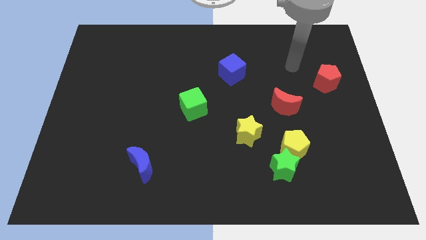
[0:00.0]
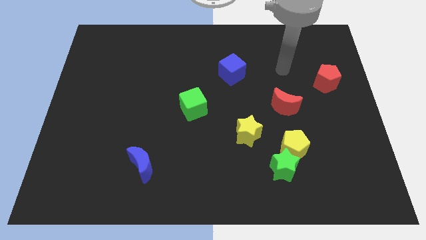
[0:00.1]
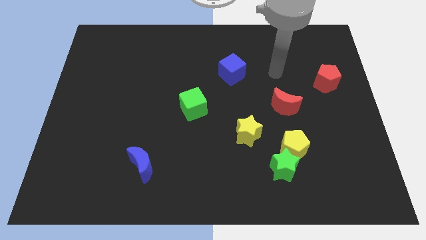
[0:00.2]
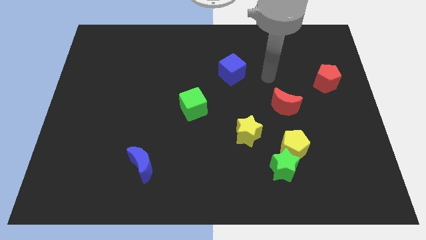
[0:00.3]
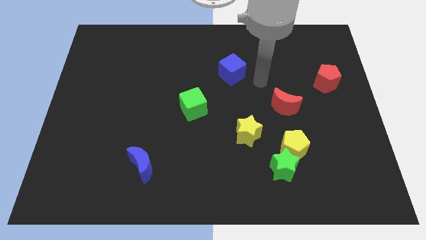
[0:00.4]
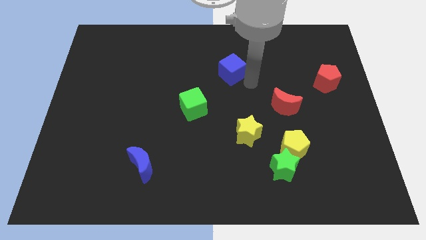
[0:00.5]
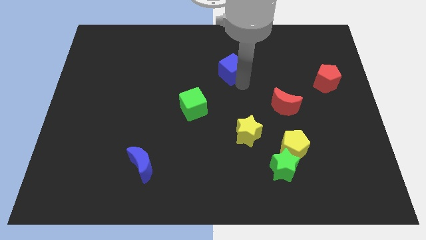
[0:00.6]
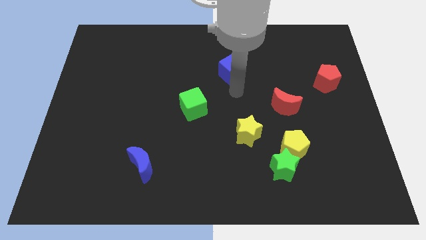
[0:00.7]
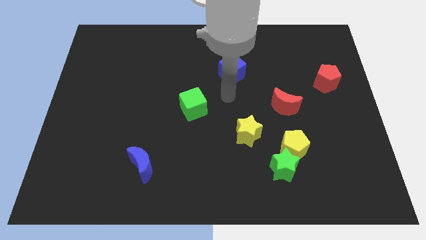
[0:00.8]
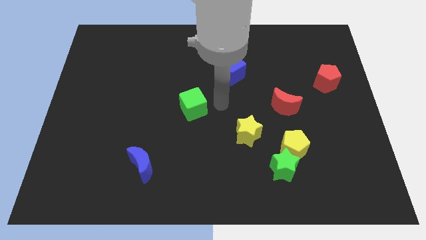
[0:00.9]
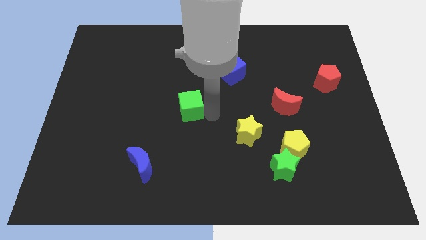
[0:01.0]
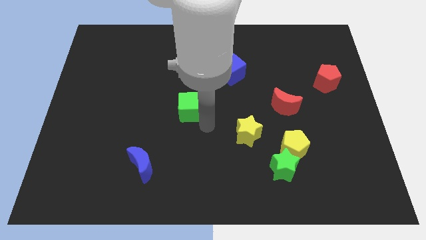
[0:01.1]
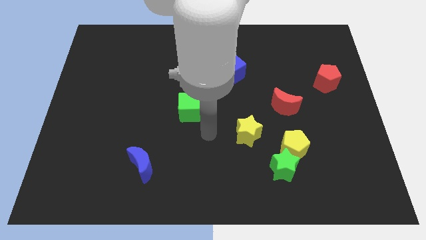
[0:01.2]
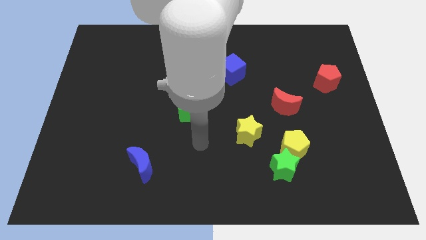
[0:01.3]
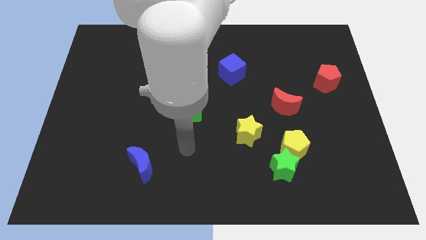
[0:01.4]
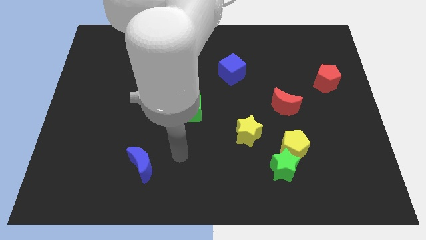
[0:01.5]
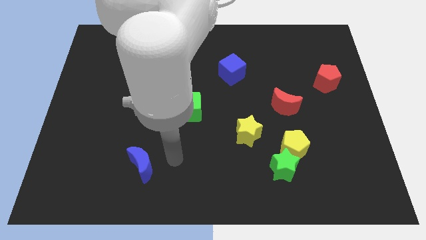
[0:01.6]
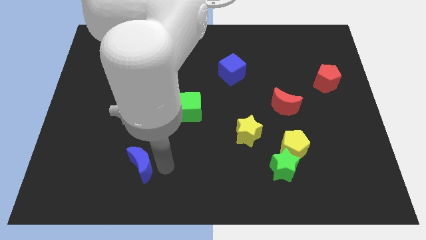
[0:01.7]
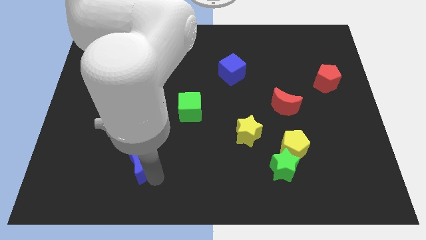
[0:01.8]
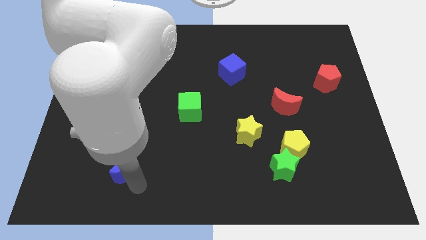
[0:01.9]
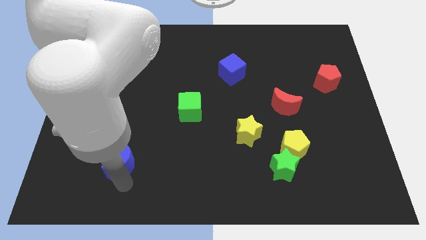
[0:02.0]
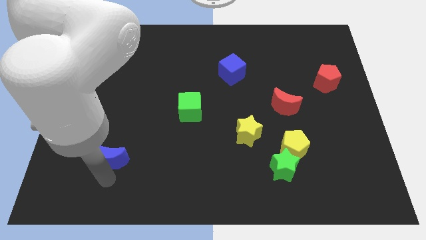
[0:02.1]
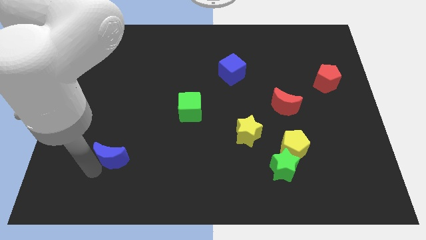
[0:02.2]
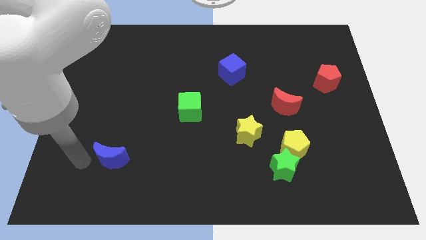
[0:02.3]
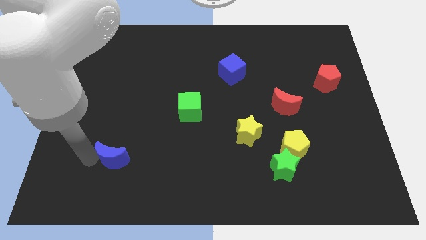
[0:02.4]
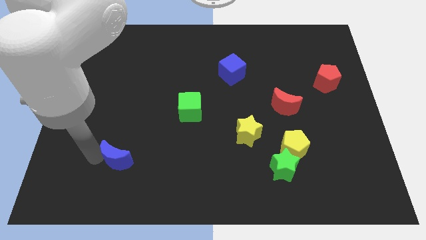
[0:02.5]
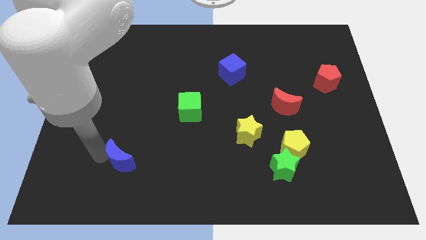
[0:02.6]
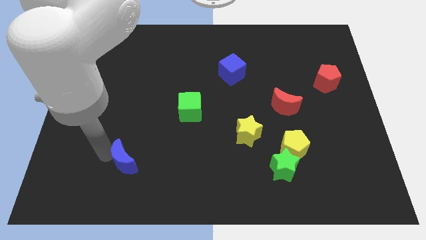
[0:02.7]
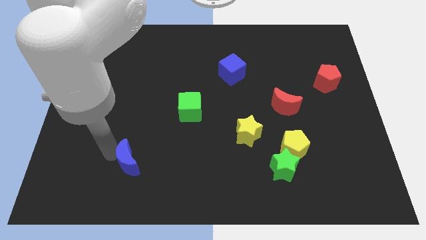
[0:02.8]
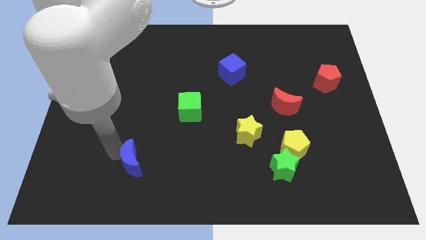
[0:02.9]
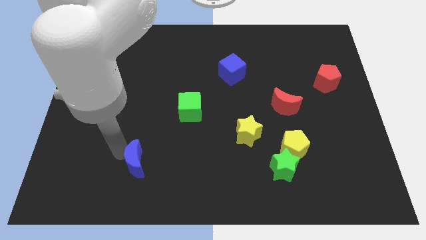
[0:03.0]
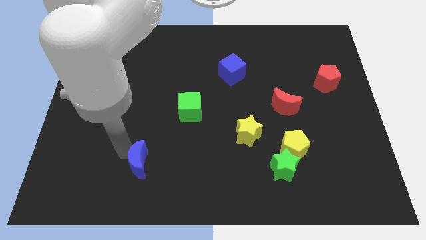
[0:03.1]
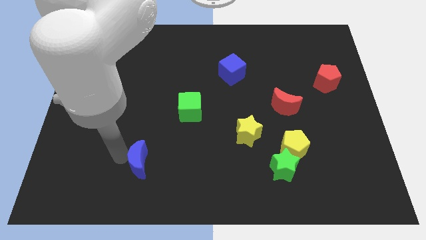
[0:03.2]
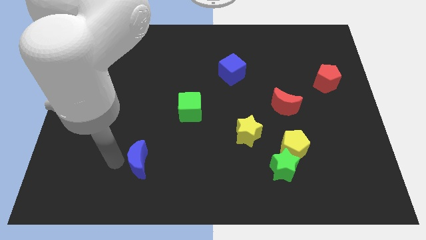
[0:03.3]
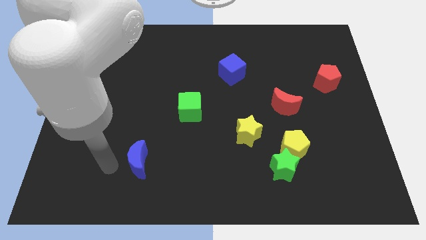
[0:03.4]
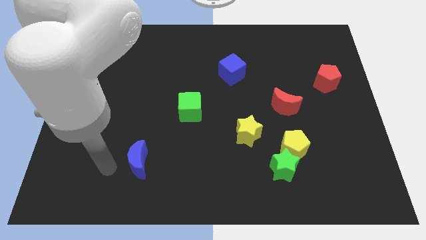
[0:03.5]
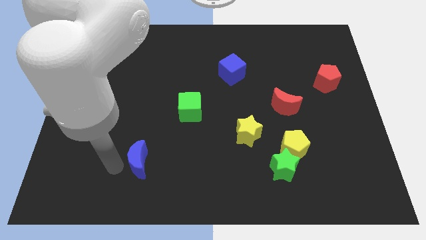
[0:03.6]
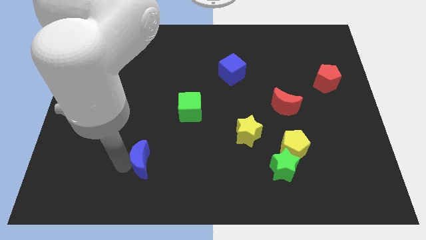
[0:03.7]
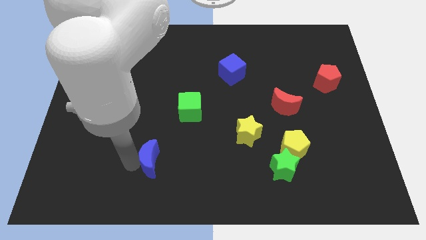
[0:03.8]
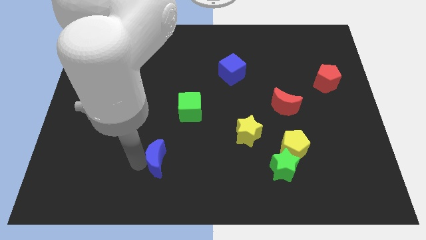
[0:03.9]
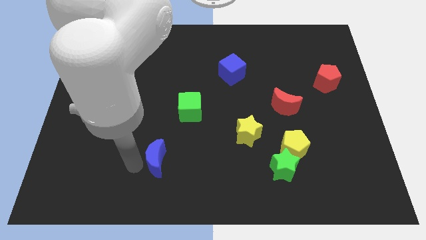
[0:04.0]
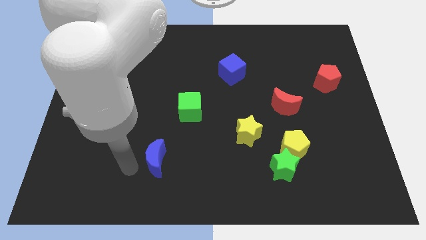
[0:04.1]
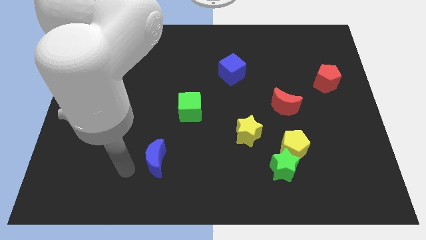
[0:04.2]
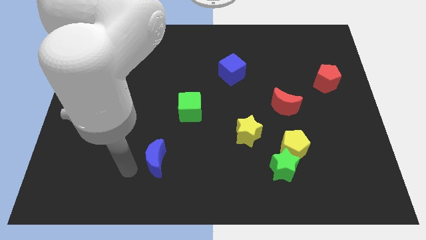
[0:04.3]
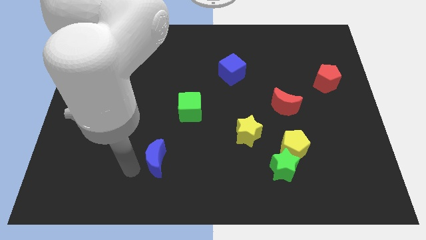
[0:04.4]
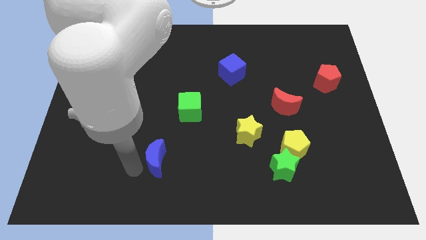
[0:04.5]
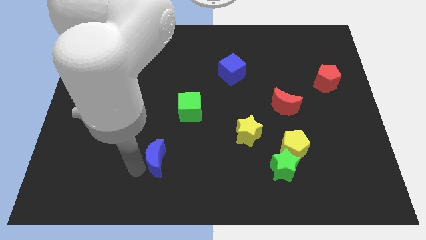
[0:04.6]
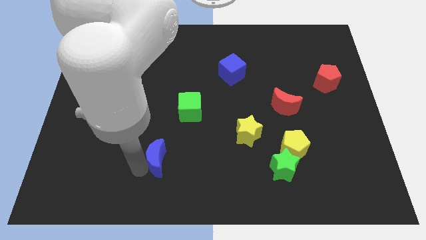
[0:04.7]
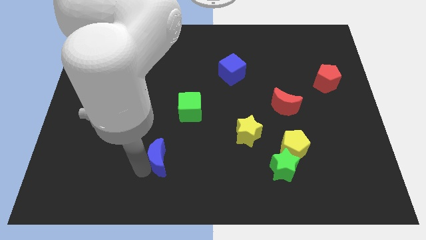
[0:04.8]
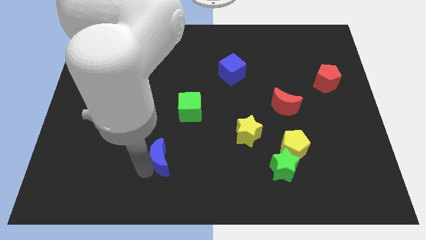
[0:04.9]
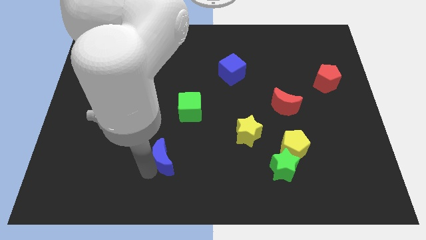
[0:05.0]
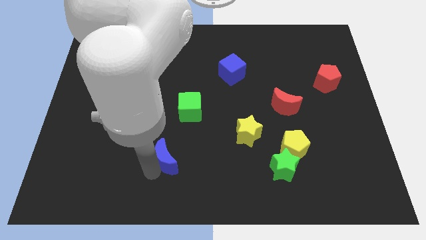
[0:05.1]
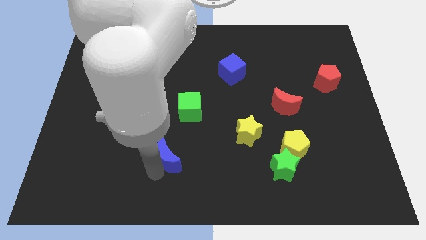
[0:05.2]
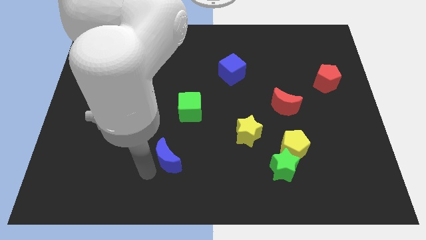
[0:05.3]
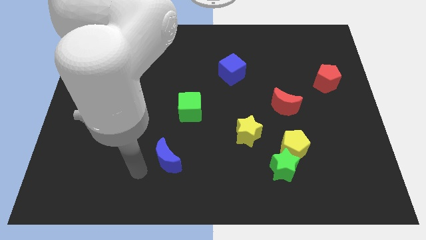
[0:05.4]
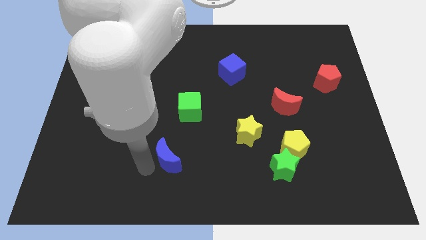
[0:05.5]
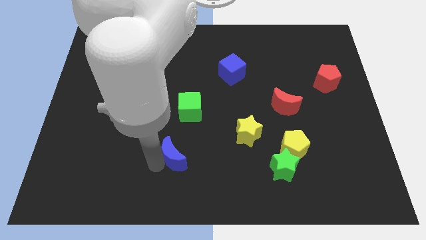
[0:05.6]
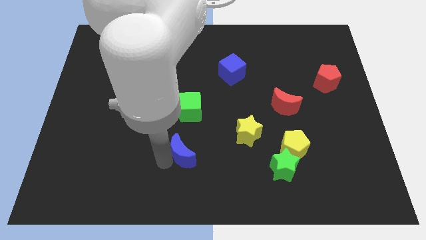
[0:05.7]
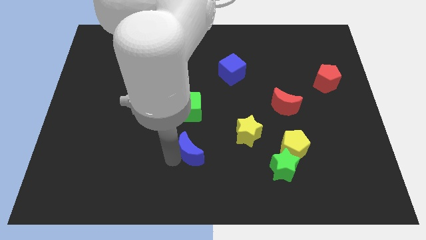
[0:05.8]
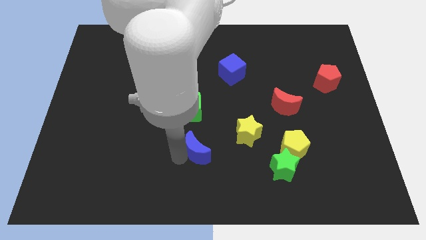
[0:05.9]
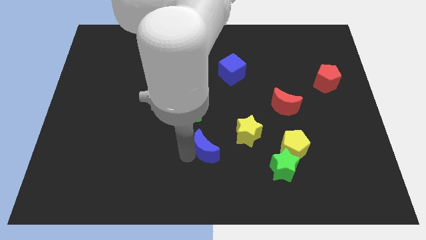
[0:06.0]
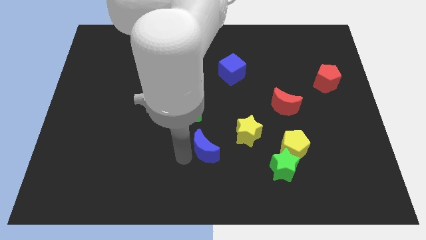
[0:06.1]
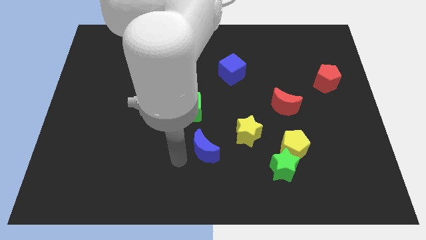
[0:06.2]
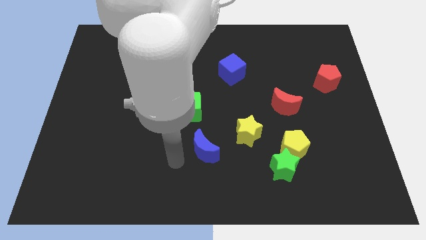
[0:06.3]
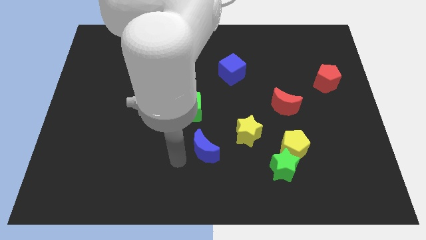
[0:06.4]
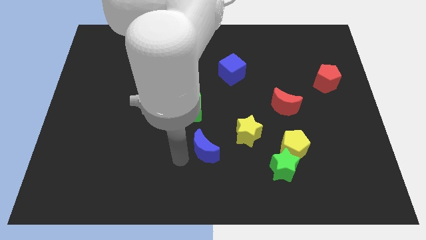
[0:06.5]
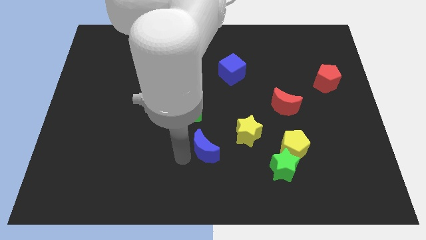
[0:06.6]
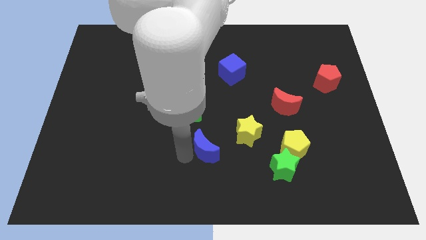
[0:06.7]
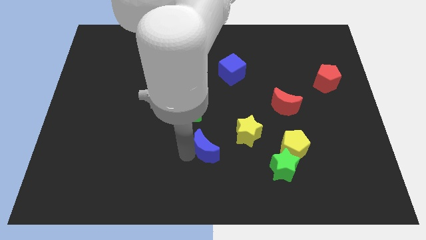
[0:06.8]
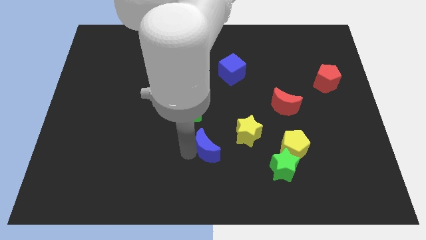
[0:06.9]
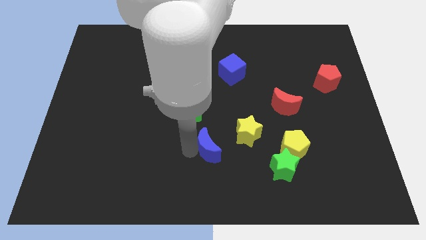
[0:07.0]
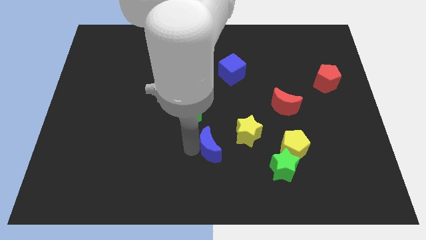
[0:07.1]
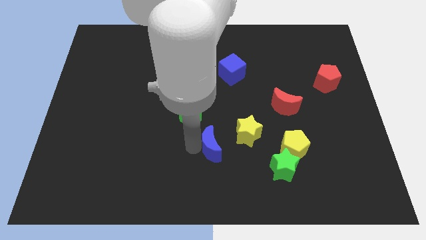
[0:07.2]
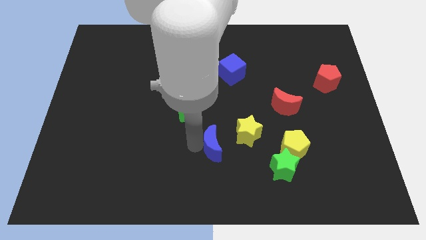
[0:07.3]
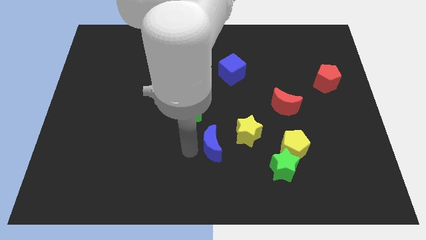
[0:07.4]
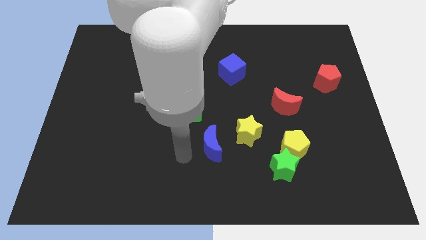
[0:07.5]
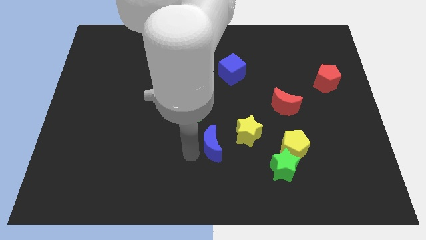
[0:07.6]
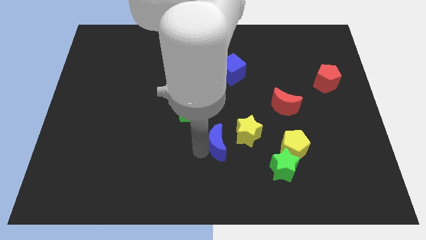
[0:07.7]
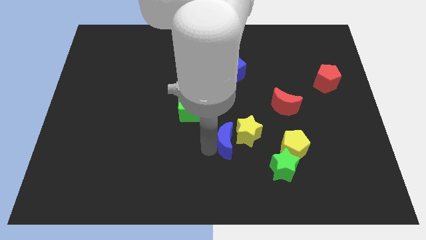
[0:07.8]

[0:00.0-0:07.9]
move the blue moon next to the yellow star
